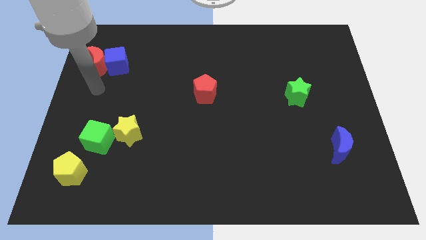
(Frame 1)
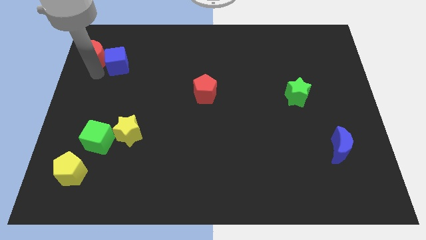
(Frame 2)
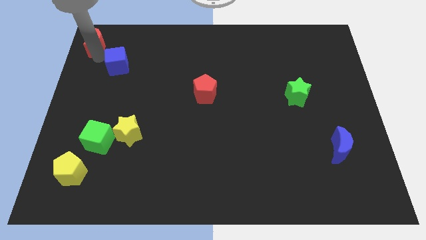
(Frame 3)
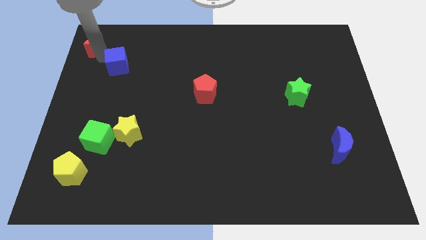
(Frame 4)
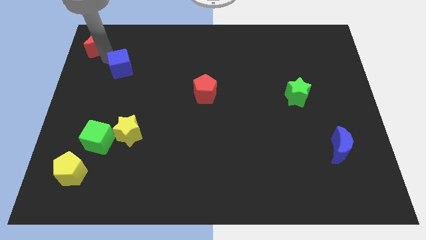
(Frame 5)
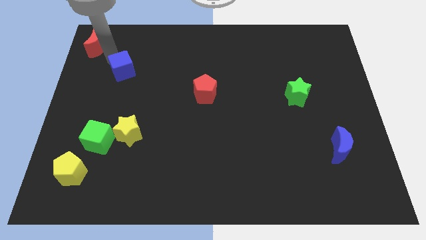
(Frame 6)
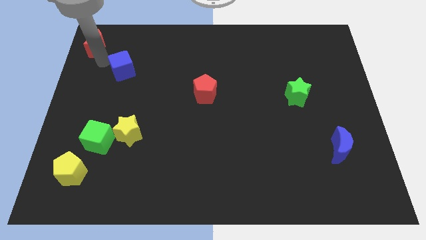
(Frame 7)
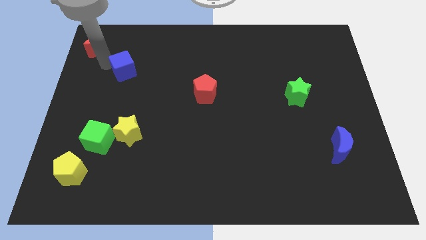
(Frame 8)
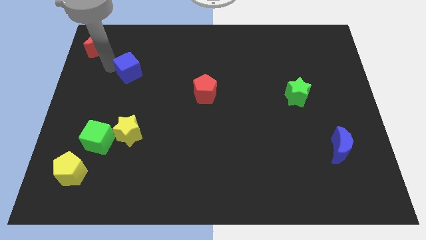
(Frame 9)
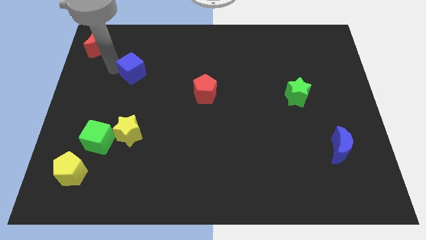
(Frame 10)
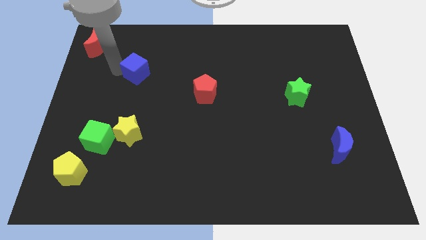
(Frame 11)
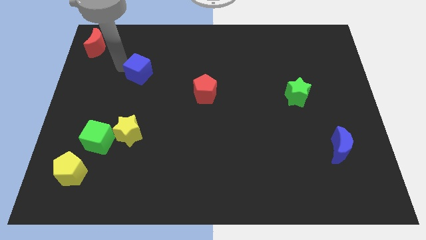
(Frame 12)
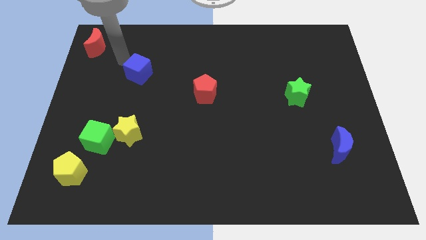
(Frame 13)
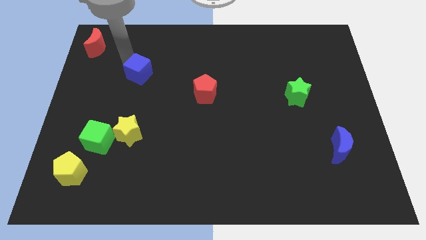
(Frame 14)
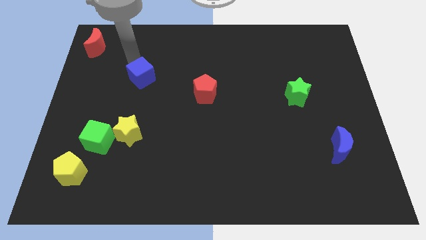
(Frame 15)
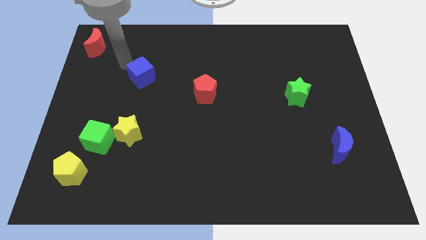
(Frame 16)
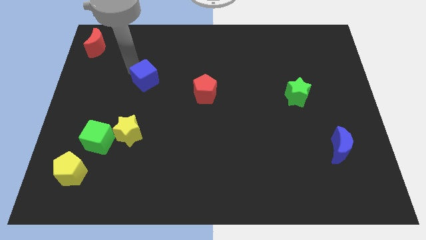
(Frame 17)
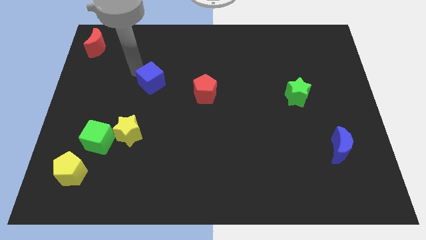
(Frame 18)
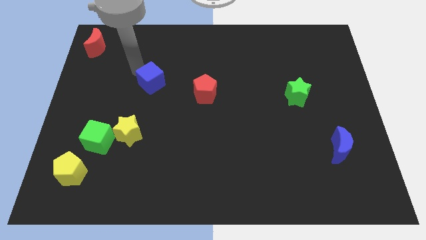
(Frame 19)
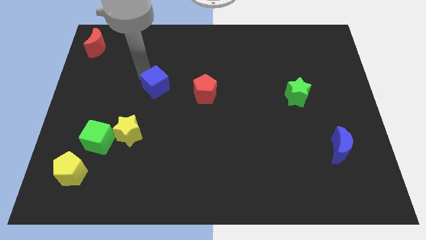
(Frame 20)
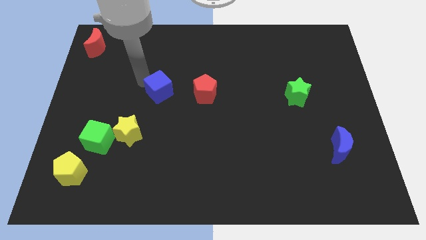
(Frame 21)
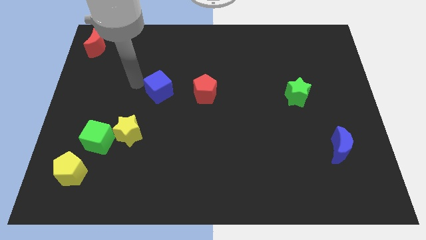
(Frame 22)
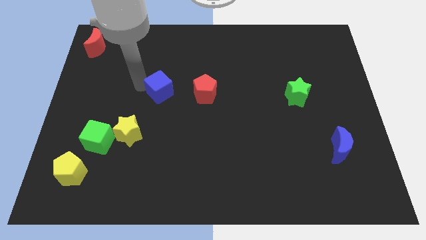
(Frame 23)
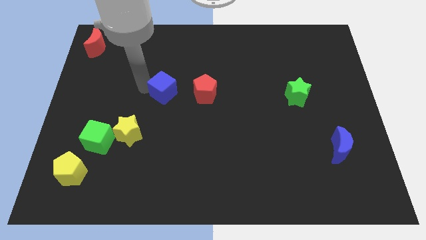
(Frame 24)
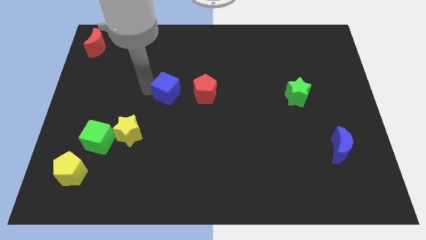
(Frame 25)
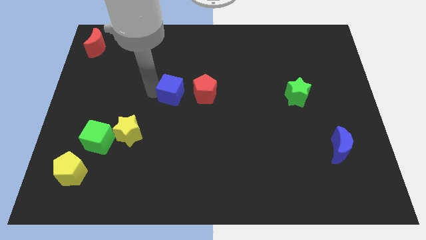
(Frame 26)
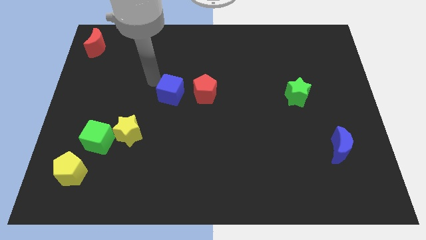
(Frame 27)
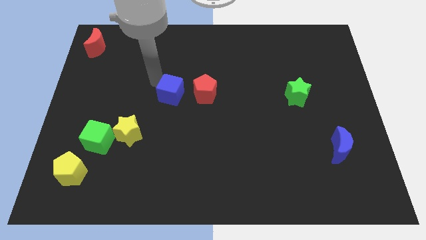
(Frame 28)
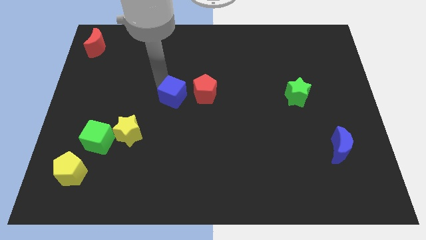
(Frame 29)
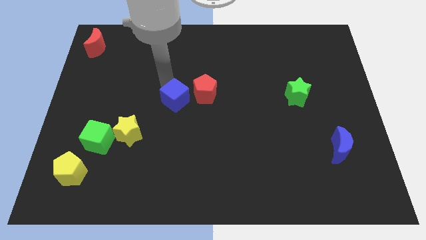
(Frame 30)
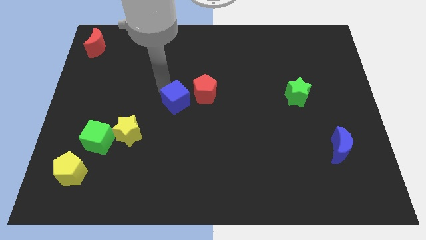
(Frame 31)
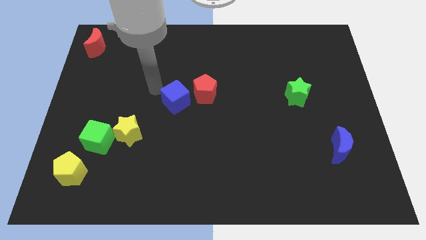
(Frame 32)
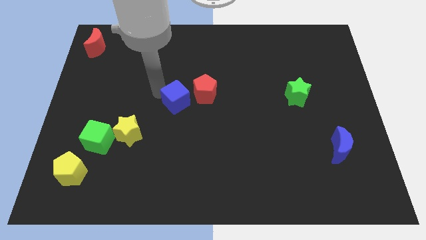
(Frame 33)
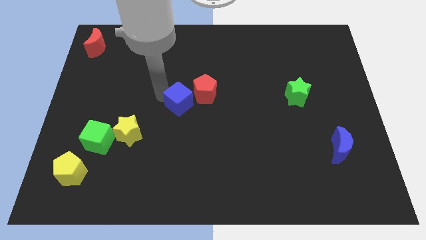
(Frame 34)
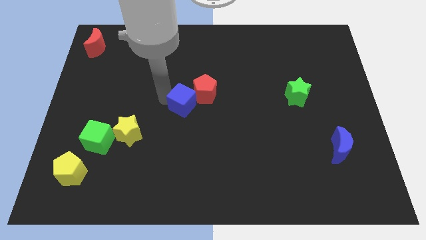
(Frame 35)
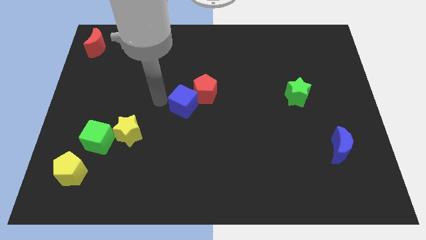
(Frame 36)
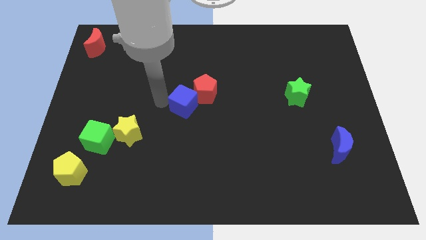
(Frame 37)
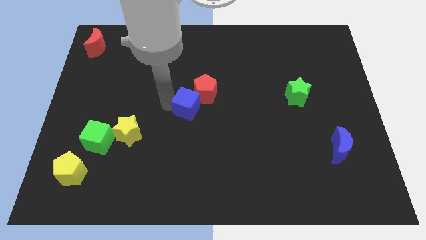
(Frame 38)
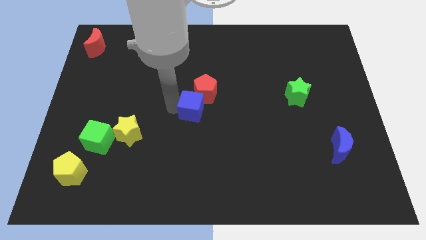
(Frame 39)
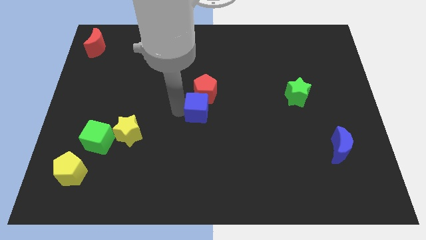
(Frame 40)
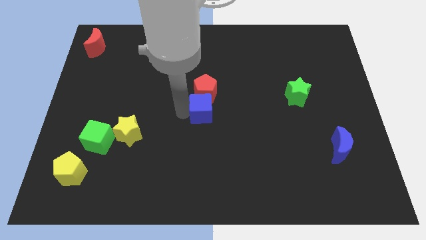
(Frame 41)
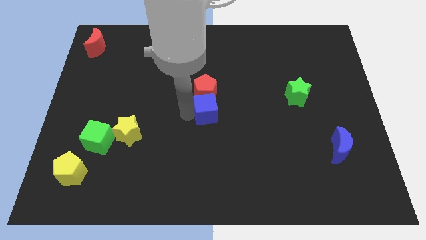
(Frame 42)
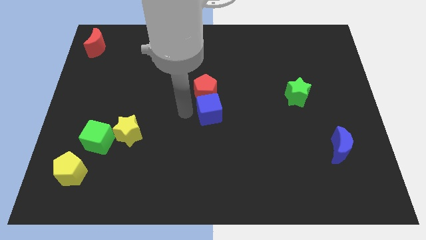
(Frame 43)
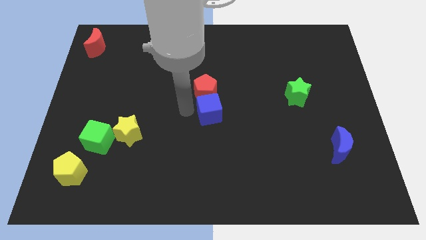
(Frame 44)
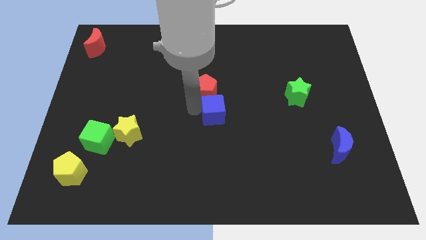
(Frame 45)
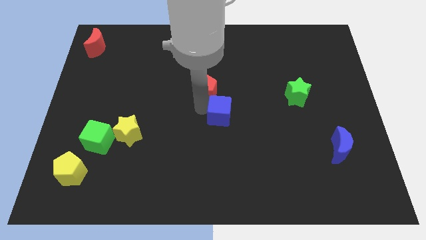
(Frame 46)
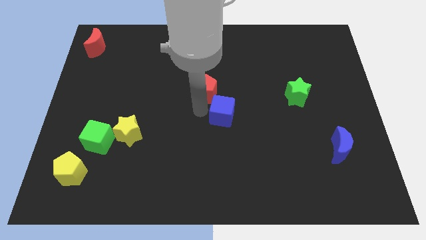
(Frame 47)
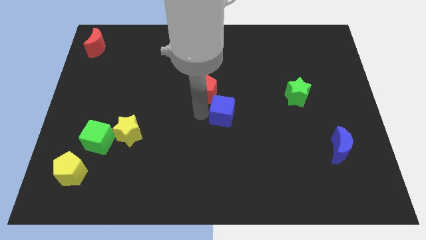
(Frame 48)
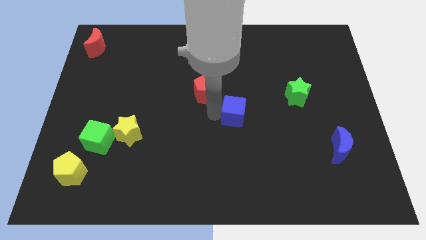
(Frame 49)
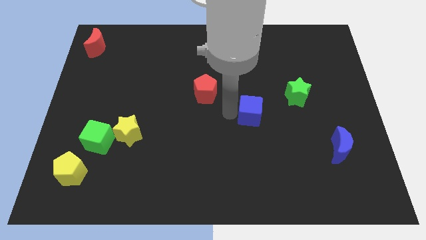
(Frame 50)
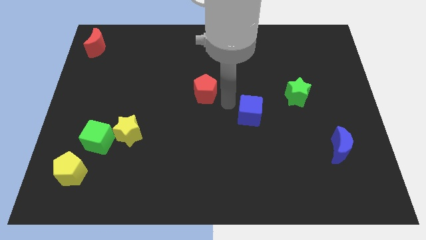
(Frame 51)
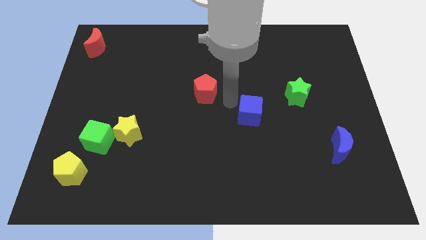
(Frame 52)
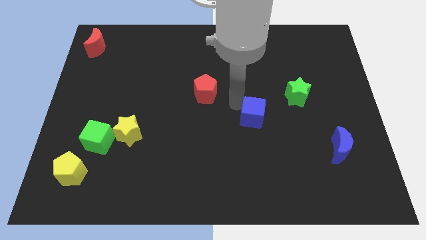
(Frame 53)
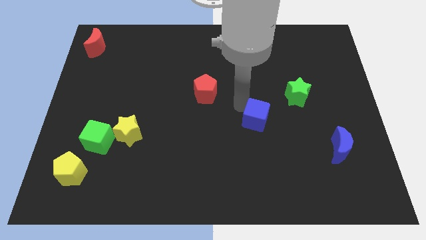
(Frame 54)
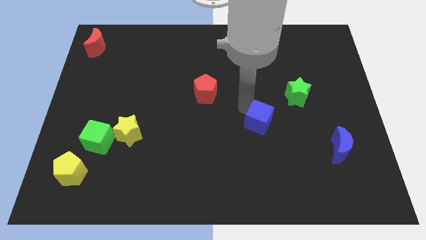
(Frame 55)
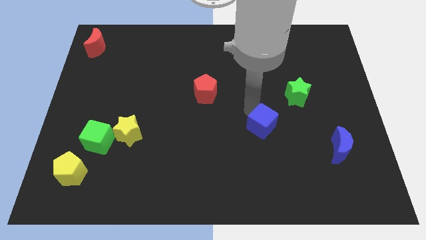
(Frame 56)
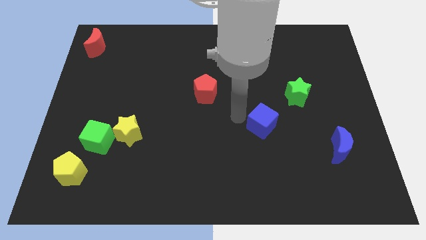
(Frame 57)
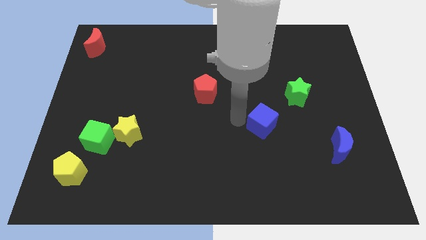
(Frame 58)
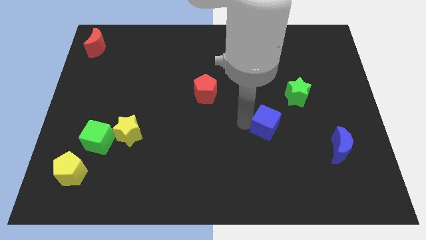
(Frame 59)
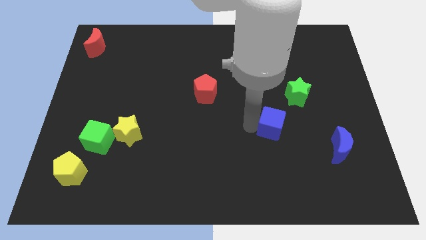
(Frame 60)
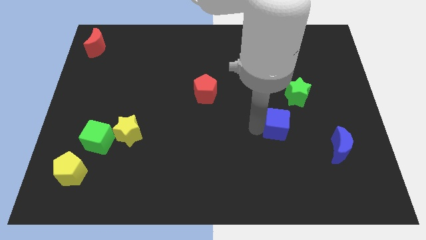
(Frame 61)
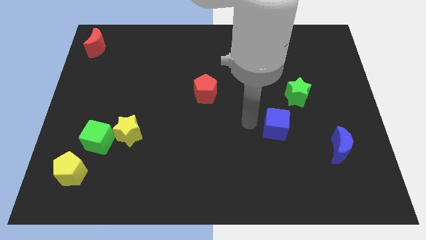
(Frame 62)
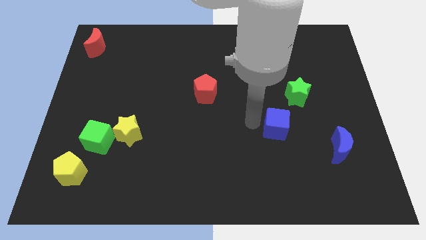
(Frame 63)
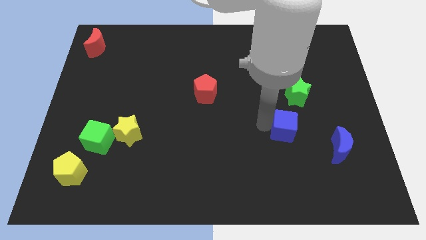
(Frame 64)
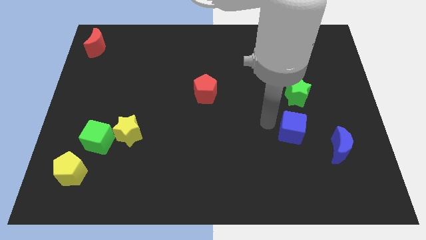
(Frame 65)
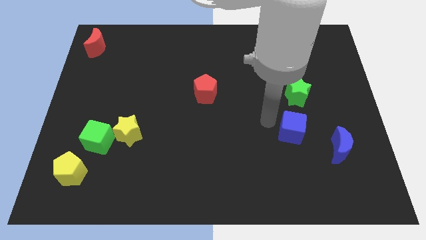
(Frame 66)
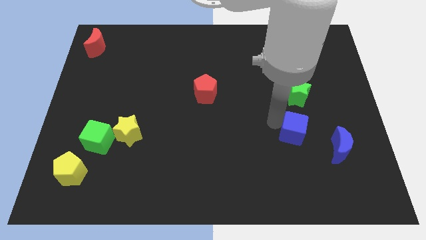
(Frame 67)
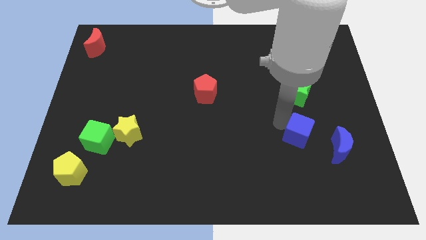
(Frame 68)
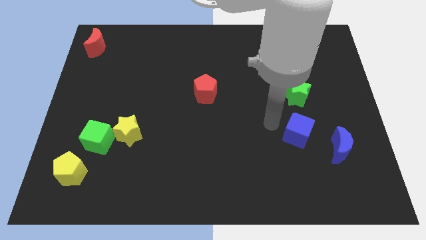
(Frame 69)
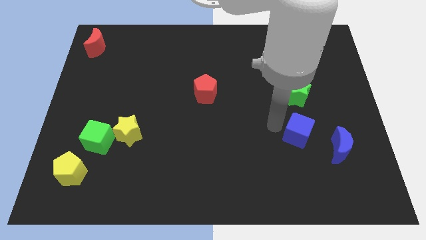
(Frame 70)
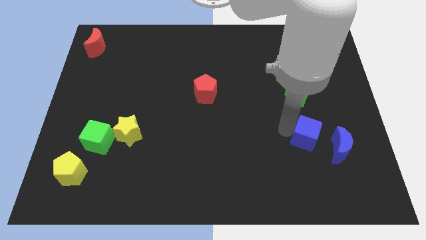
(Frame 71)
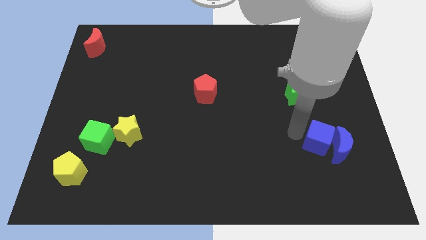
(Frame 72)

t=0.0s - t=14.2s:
put the blue cube towards the blue moon

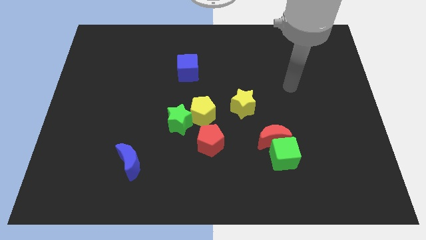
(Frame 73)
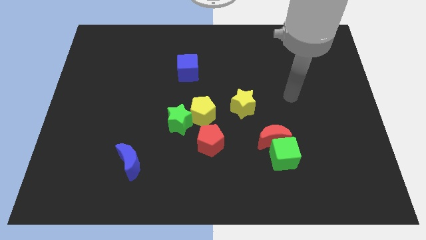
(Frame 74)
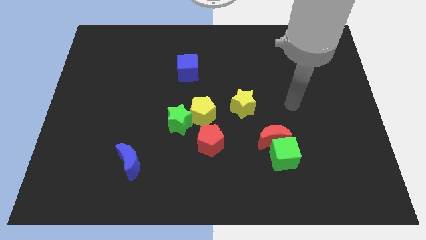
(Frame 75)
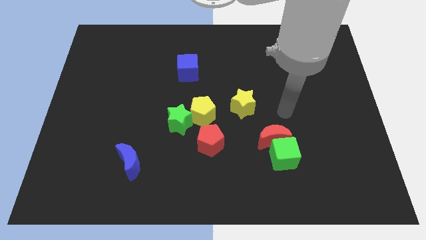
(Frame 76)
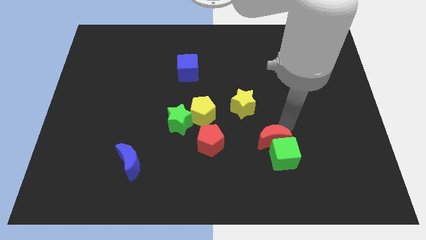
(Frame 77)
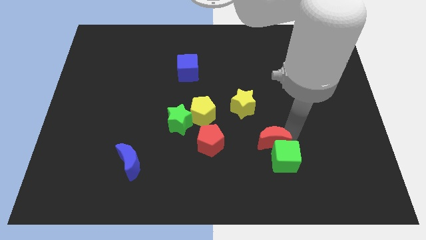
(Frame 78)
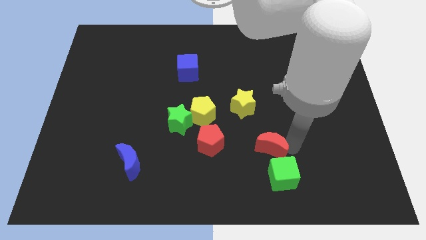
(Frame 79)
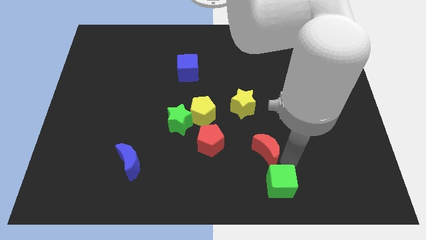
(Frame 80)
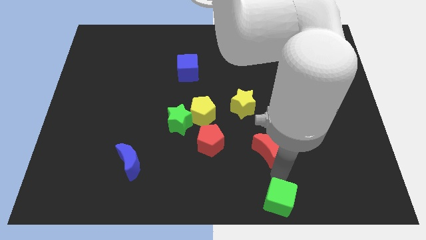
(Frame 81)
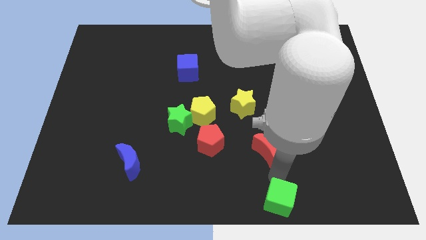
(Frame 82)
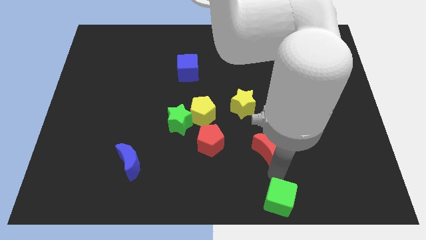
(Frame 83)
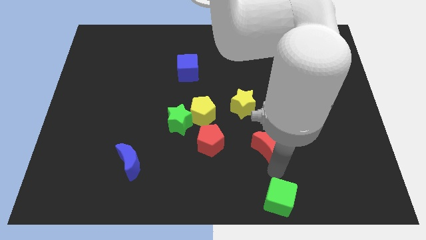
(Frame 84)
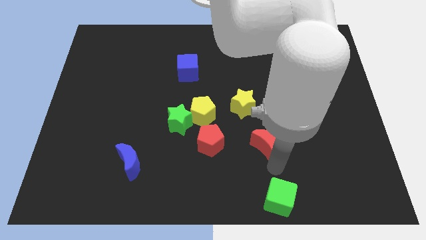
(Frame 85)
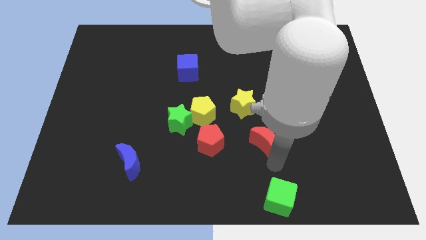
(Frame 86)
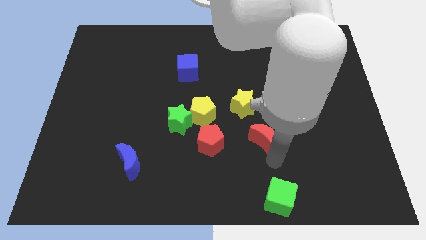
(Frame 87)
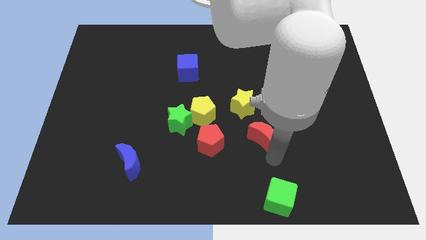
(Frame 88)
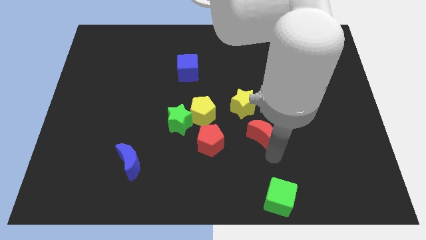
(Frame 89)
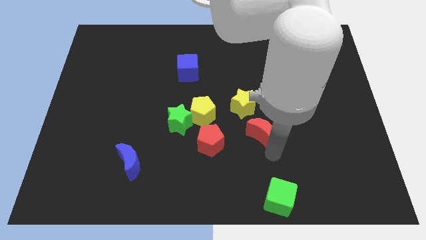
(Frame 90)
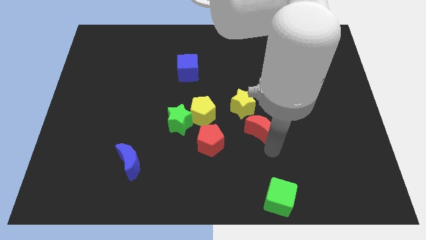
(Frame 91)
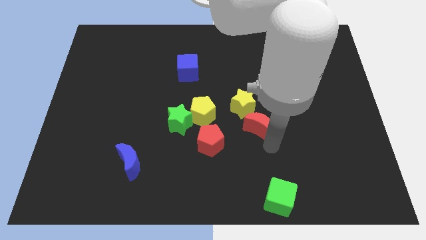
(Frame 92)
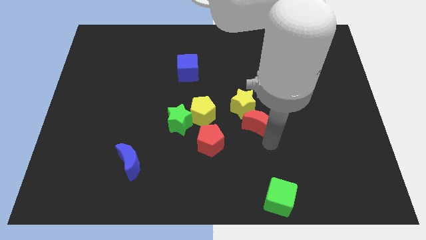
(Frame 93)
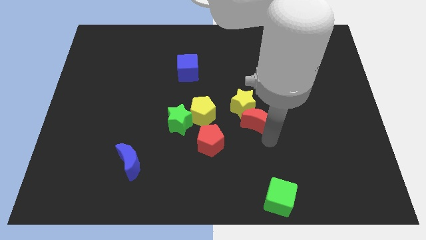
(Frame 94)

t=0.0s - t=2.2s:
move the red moon close to the yellow star
